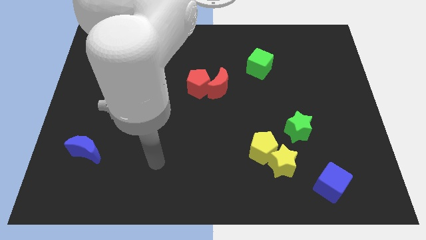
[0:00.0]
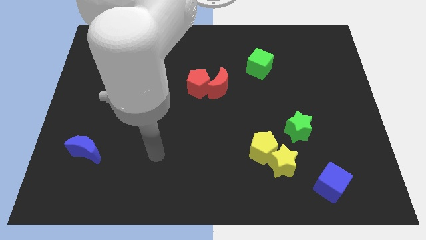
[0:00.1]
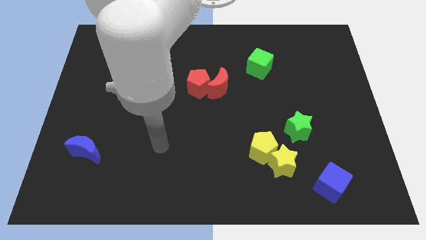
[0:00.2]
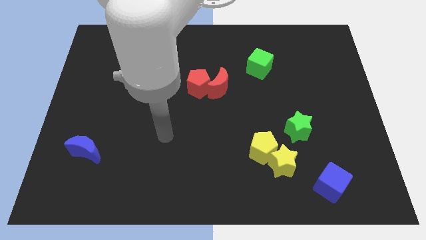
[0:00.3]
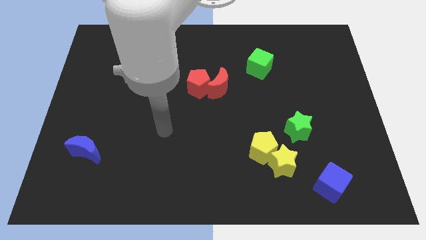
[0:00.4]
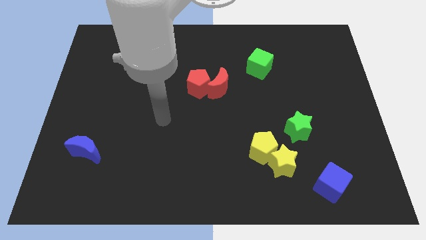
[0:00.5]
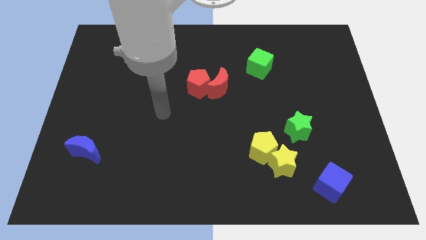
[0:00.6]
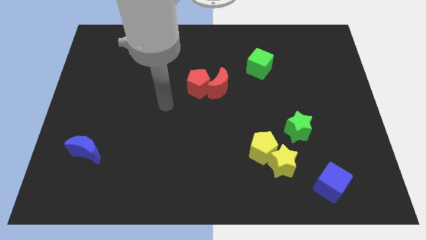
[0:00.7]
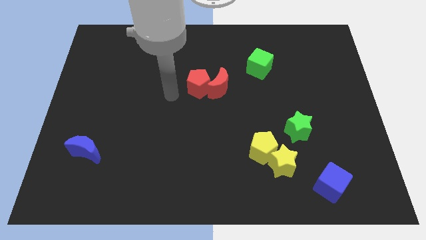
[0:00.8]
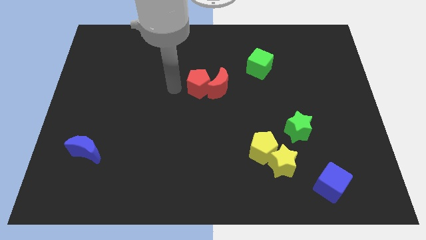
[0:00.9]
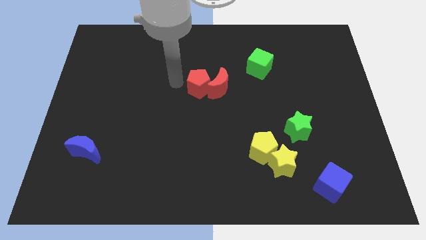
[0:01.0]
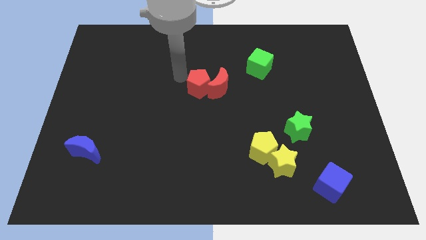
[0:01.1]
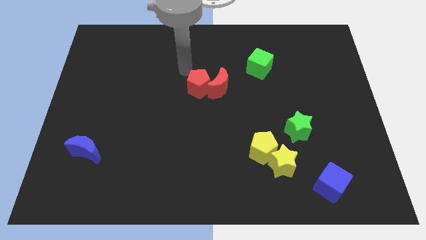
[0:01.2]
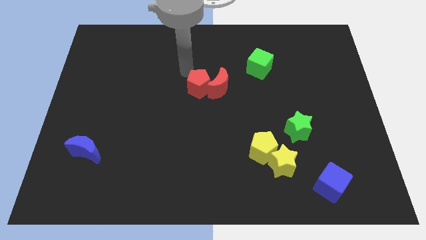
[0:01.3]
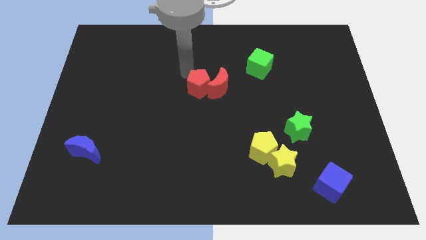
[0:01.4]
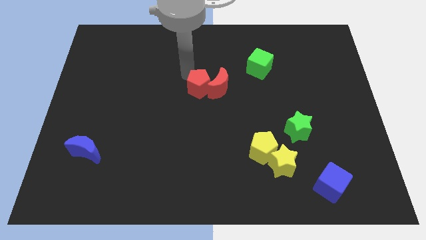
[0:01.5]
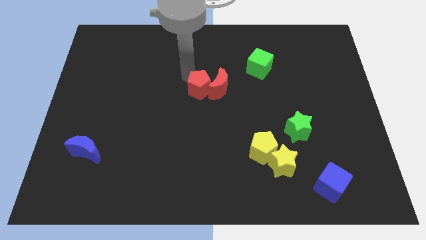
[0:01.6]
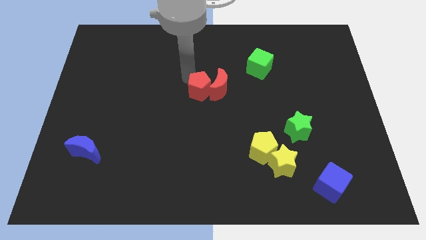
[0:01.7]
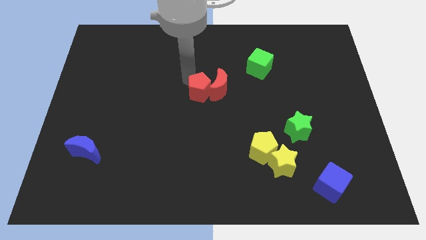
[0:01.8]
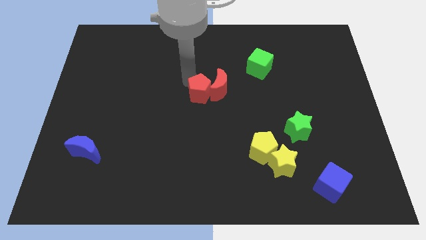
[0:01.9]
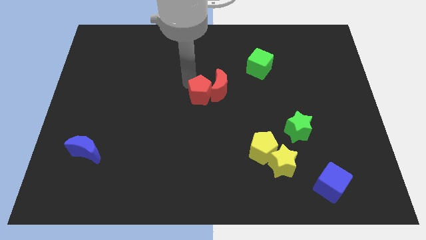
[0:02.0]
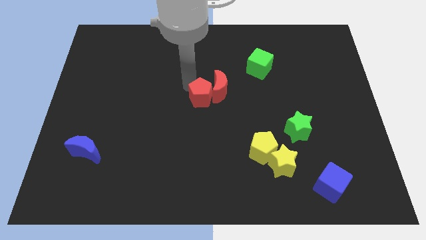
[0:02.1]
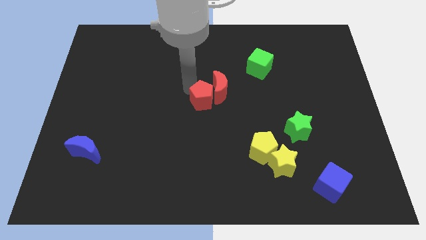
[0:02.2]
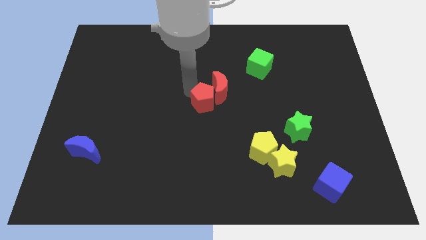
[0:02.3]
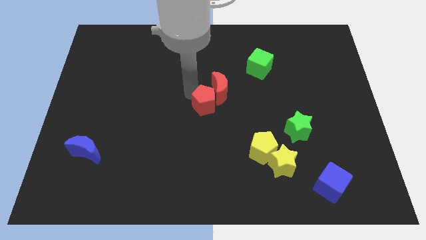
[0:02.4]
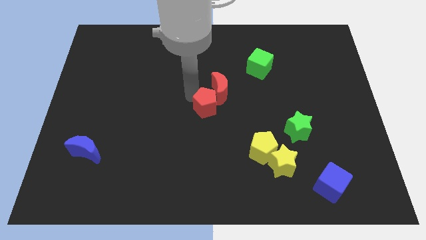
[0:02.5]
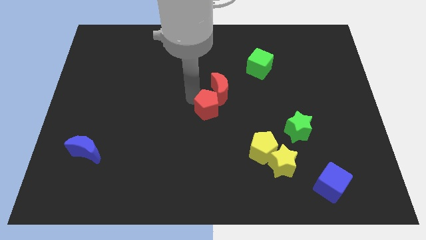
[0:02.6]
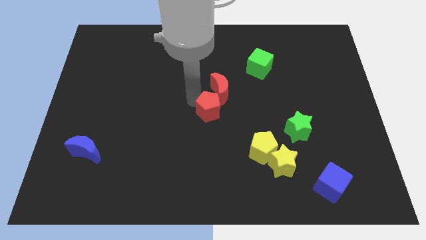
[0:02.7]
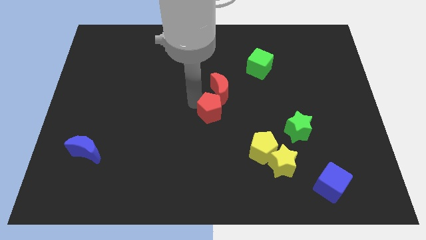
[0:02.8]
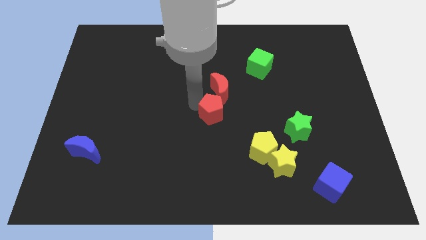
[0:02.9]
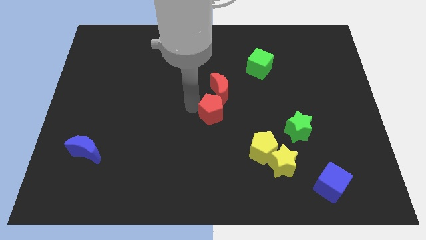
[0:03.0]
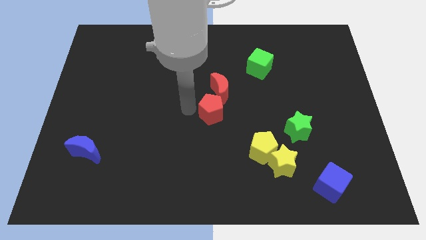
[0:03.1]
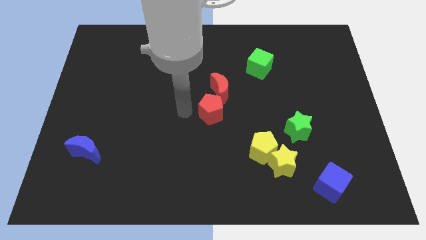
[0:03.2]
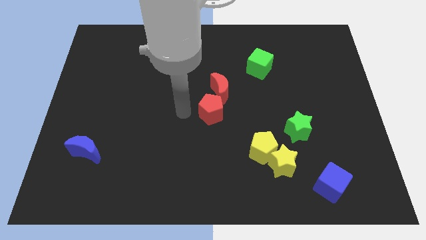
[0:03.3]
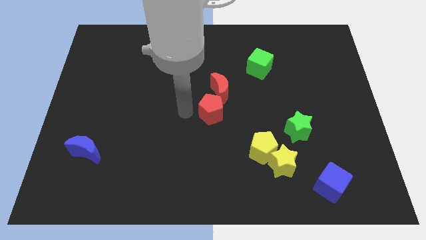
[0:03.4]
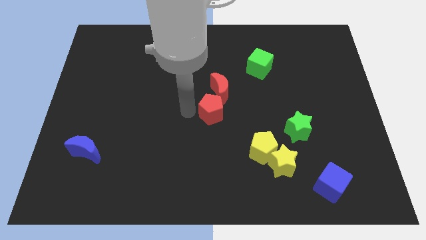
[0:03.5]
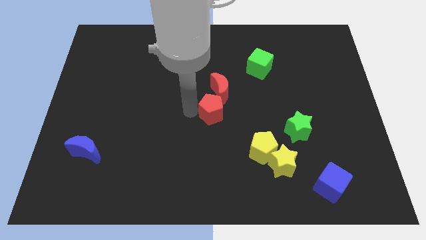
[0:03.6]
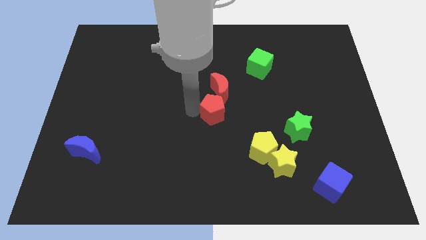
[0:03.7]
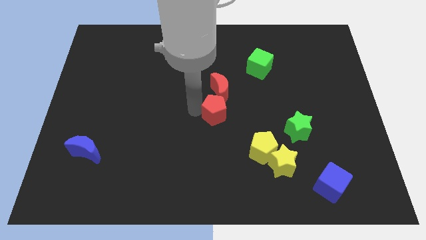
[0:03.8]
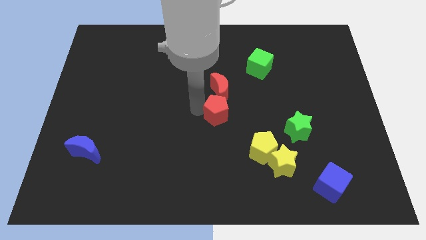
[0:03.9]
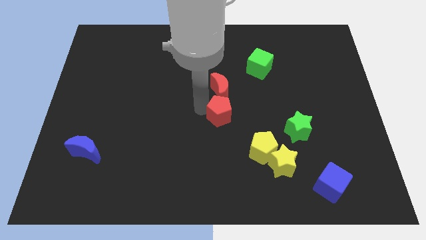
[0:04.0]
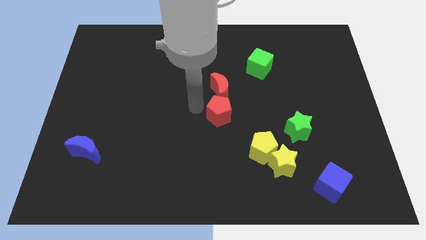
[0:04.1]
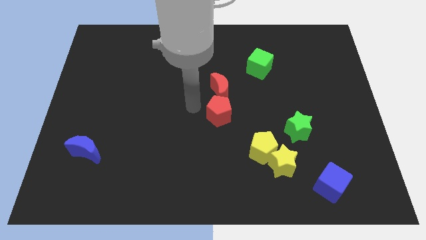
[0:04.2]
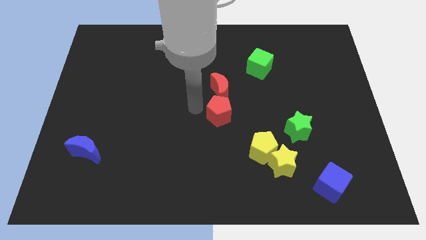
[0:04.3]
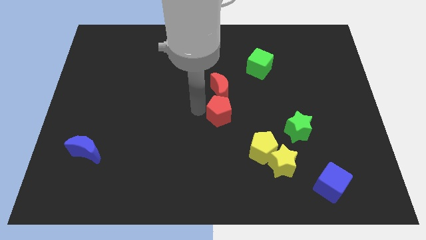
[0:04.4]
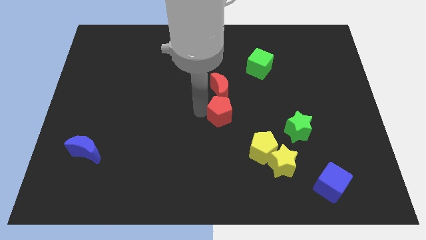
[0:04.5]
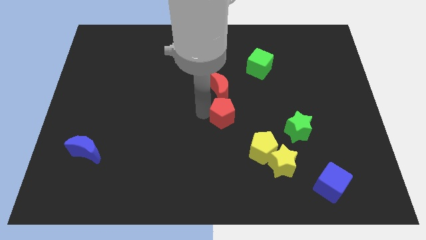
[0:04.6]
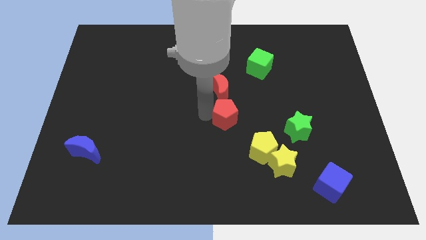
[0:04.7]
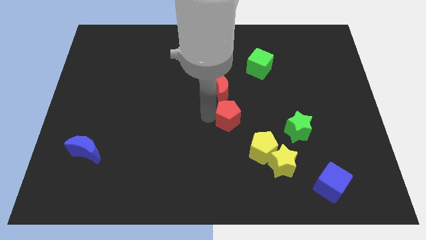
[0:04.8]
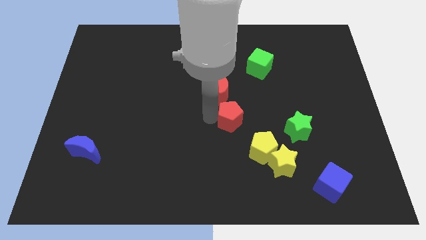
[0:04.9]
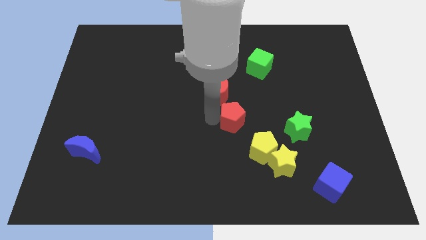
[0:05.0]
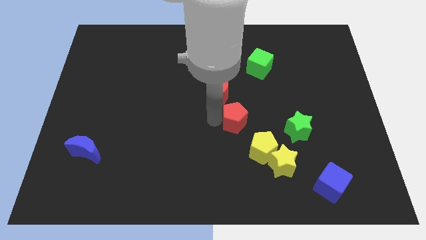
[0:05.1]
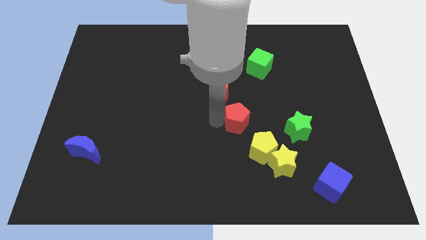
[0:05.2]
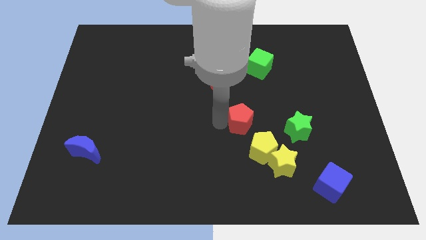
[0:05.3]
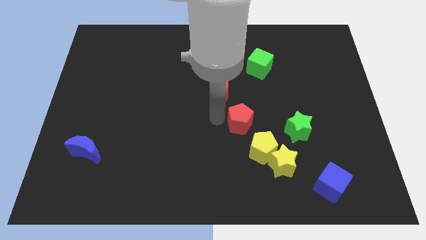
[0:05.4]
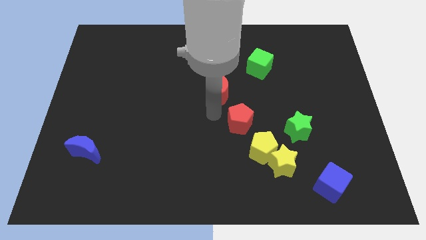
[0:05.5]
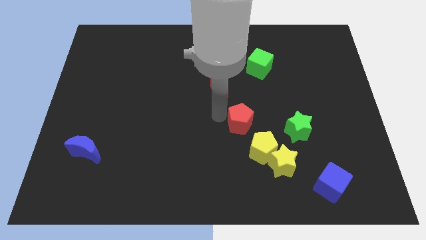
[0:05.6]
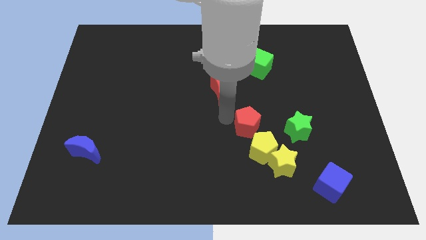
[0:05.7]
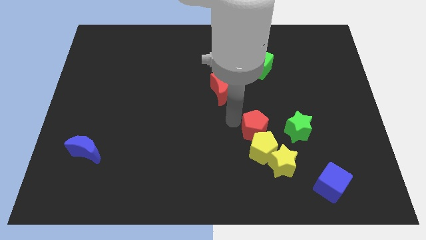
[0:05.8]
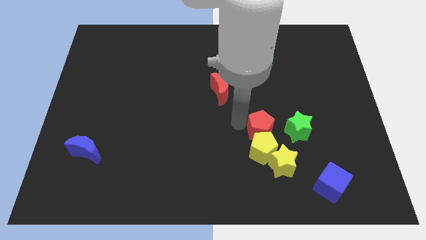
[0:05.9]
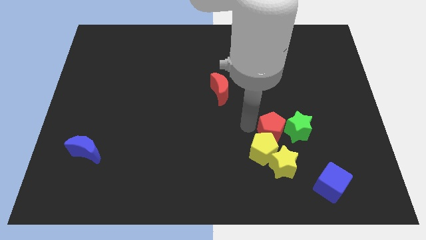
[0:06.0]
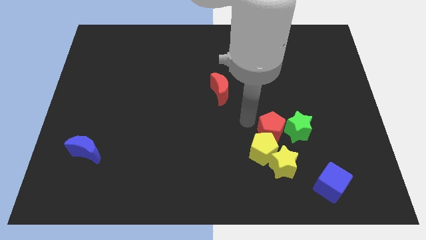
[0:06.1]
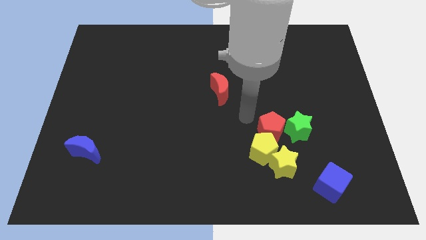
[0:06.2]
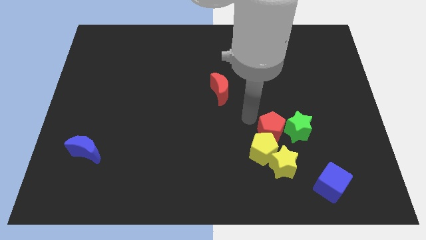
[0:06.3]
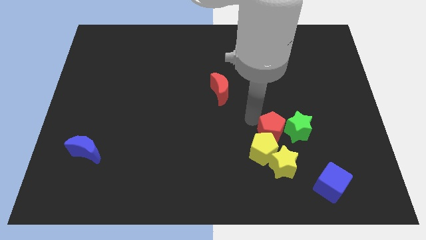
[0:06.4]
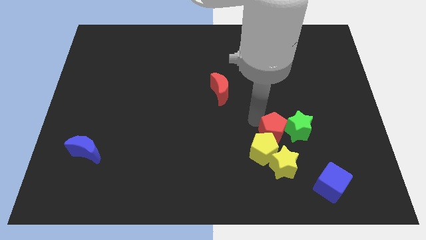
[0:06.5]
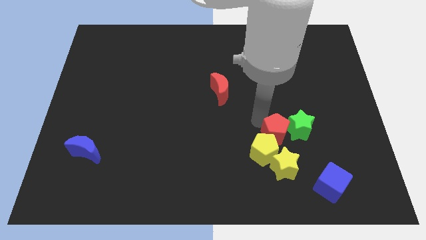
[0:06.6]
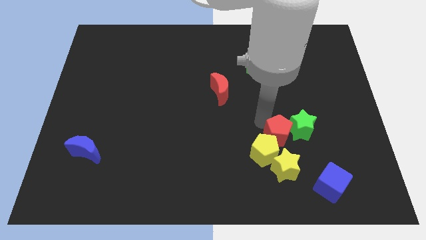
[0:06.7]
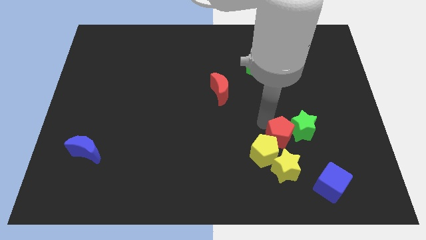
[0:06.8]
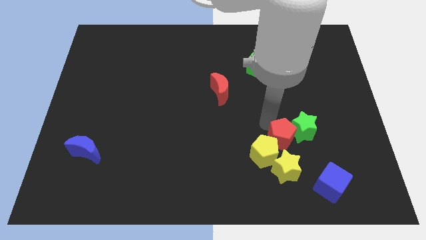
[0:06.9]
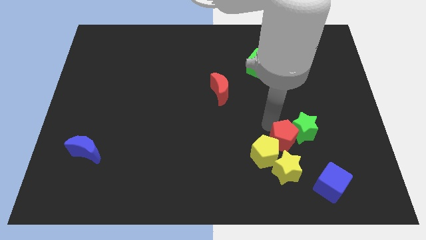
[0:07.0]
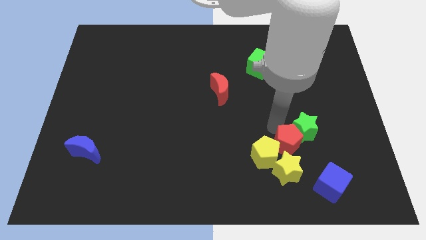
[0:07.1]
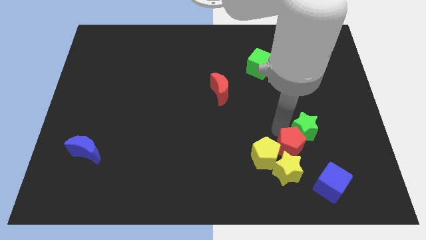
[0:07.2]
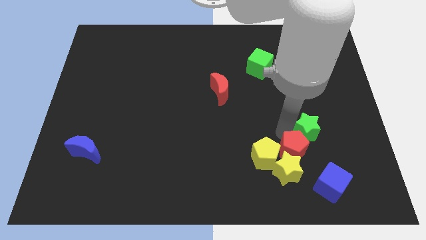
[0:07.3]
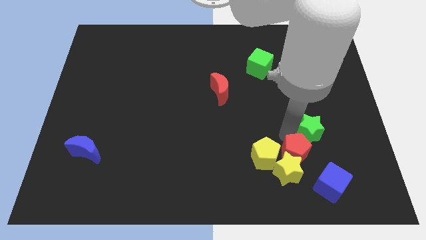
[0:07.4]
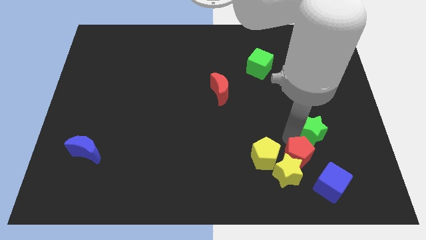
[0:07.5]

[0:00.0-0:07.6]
push the red pentagon to the right side of the yellow star
